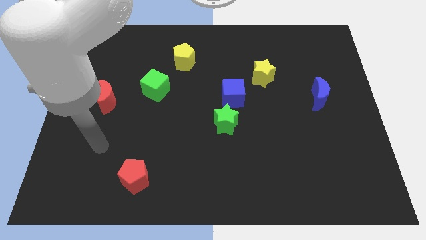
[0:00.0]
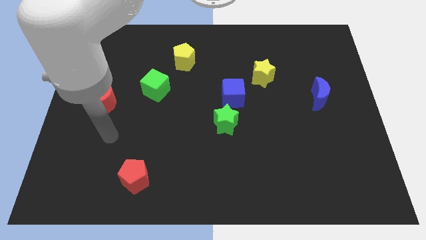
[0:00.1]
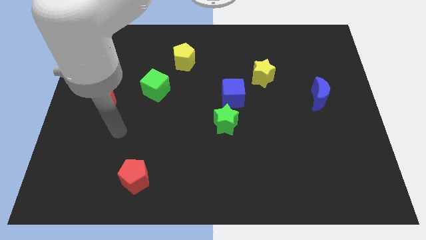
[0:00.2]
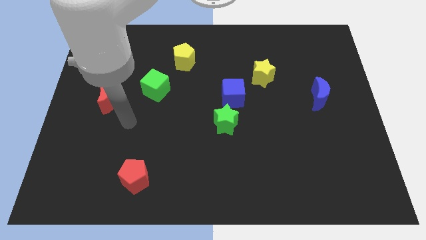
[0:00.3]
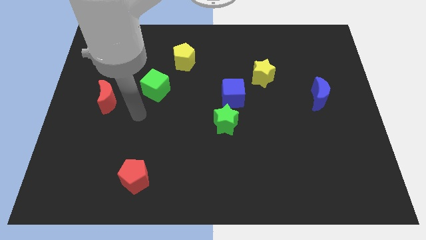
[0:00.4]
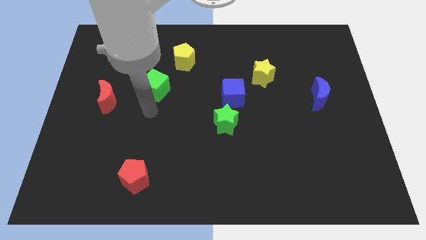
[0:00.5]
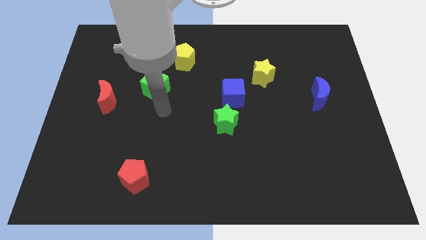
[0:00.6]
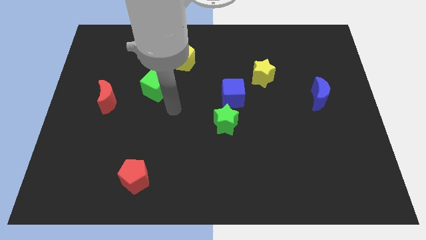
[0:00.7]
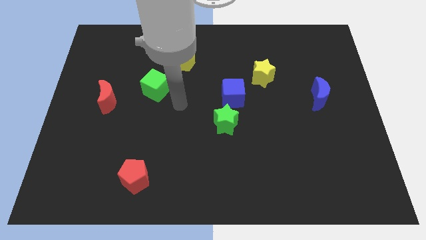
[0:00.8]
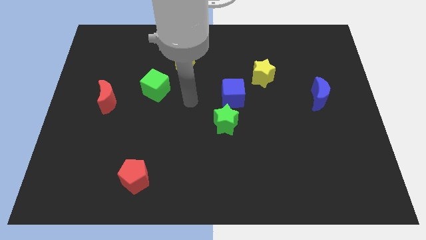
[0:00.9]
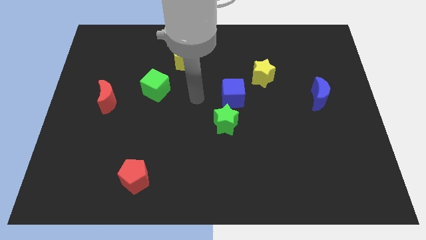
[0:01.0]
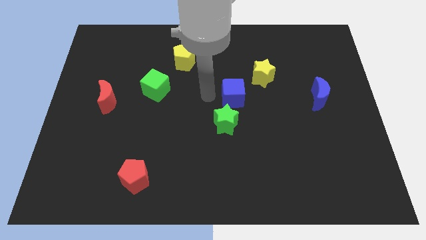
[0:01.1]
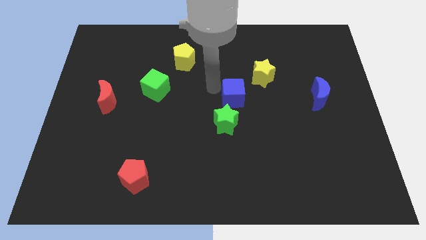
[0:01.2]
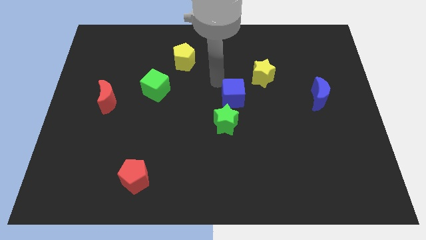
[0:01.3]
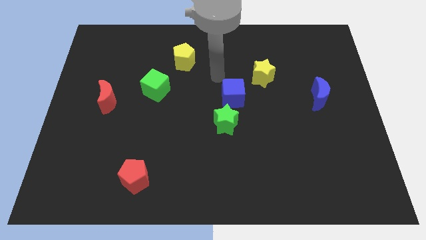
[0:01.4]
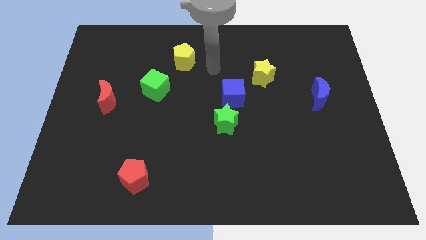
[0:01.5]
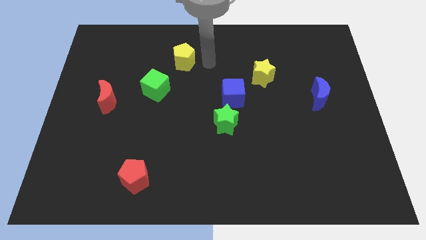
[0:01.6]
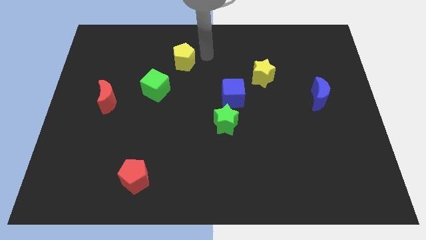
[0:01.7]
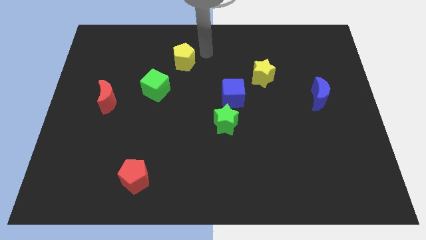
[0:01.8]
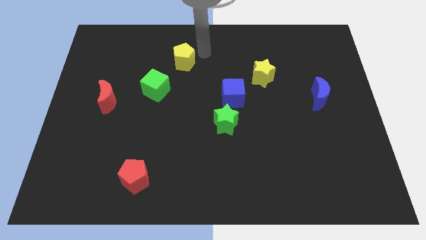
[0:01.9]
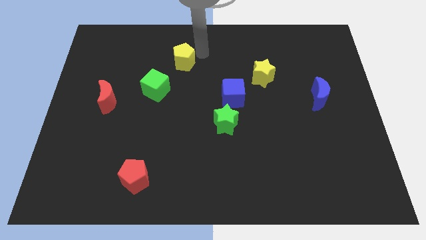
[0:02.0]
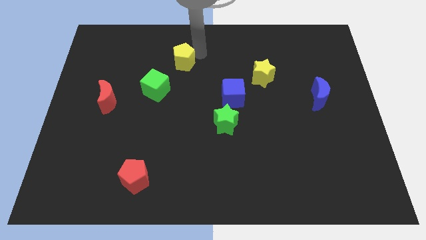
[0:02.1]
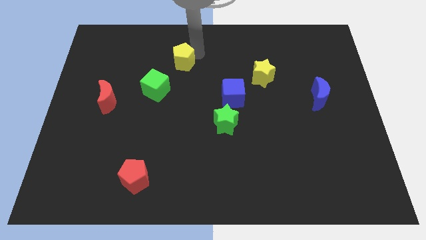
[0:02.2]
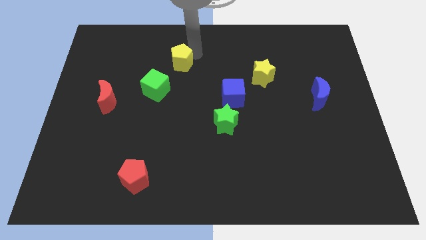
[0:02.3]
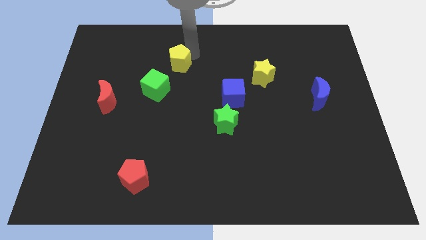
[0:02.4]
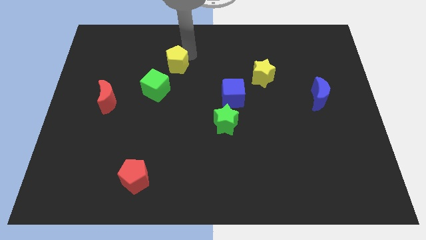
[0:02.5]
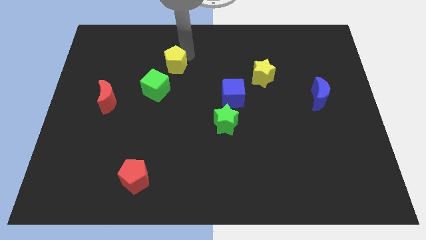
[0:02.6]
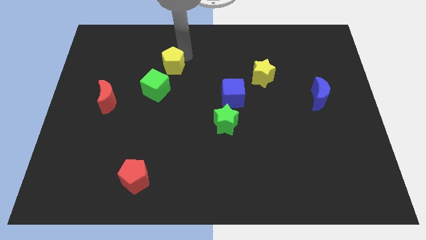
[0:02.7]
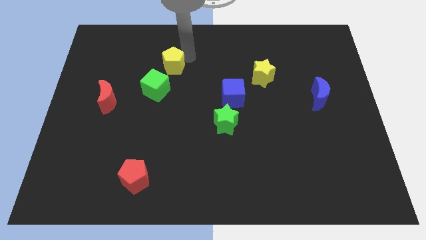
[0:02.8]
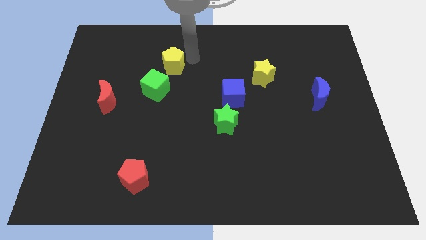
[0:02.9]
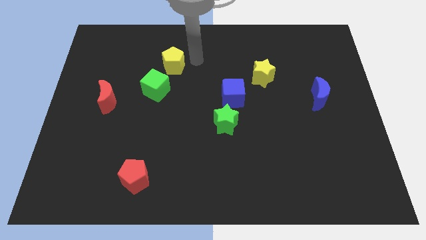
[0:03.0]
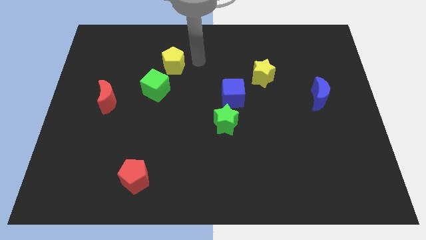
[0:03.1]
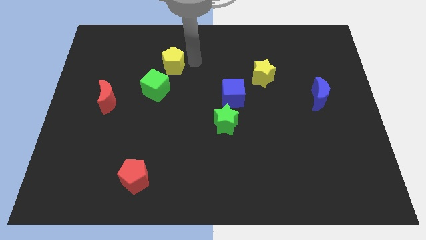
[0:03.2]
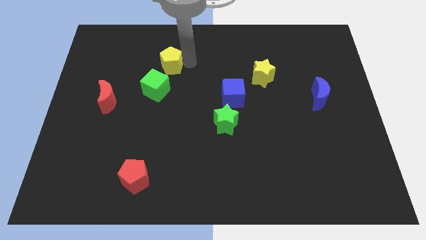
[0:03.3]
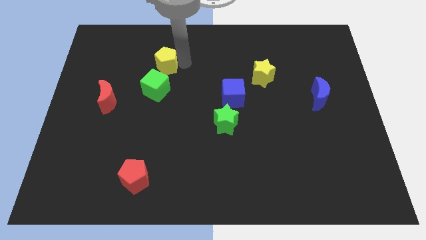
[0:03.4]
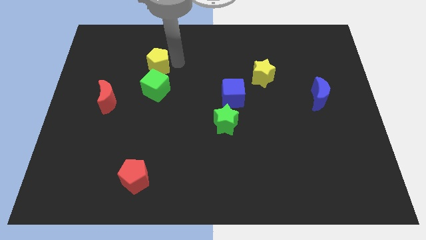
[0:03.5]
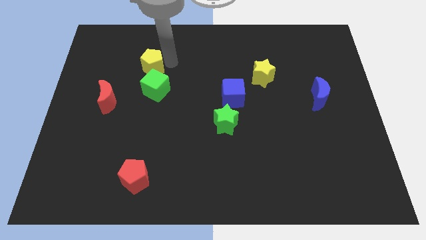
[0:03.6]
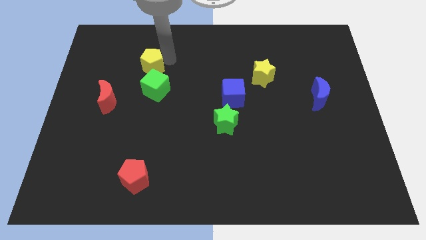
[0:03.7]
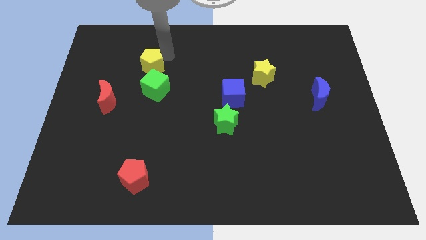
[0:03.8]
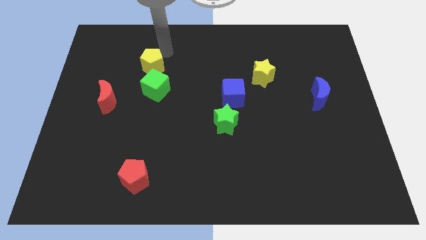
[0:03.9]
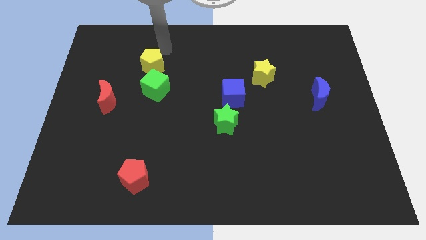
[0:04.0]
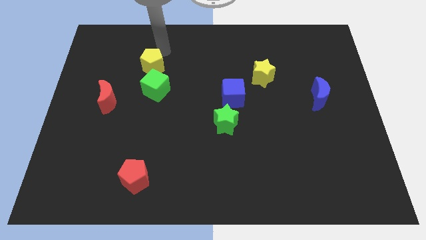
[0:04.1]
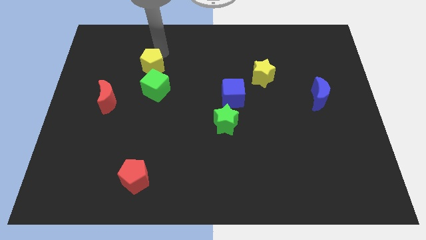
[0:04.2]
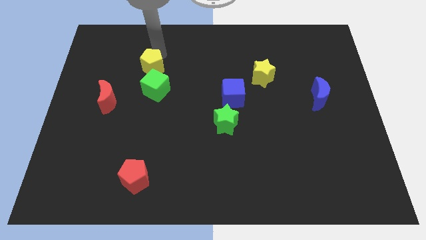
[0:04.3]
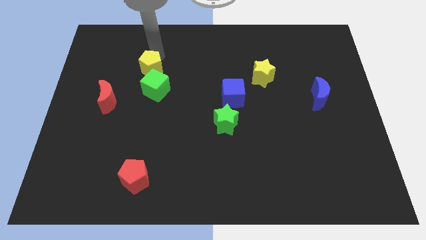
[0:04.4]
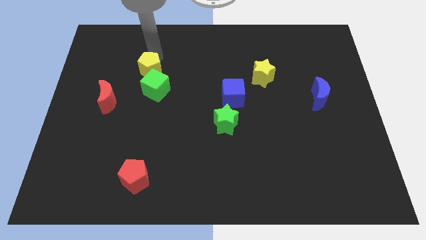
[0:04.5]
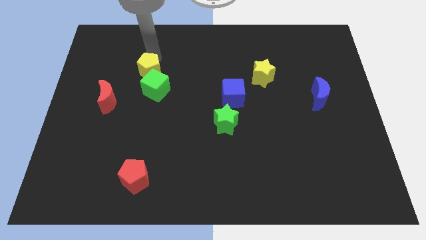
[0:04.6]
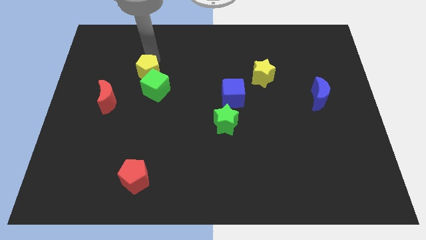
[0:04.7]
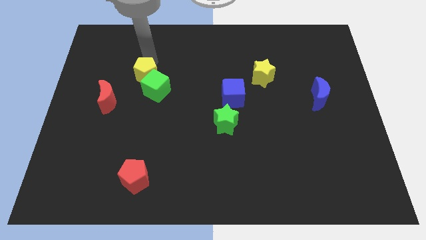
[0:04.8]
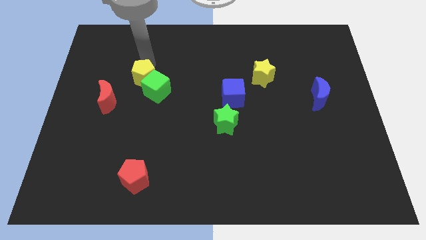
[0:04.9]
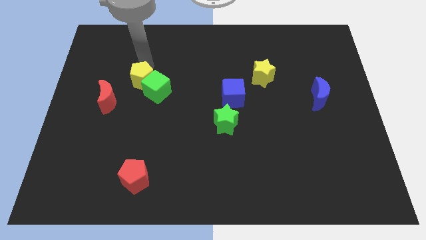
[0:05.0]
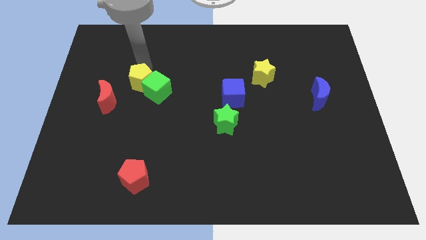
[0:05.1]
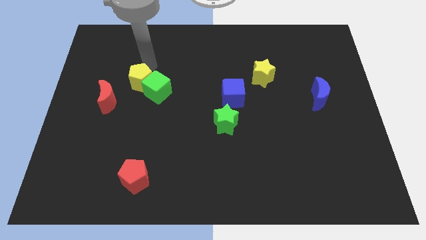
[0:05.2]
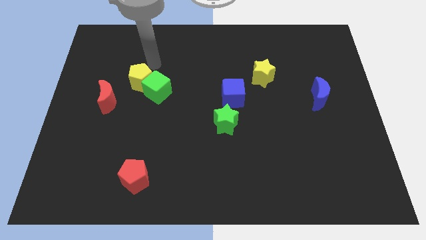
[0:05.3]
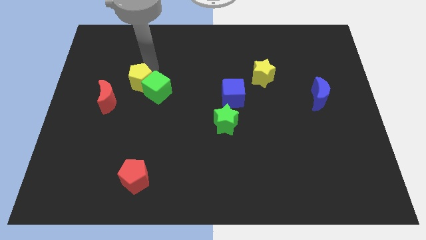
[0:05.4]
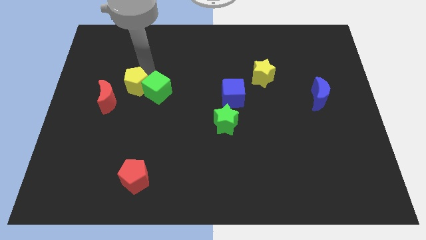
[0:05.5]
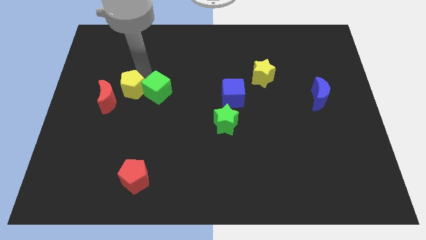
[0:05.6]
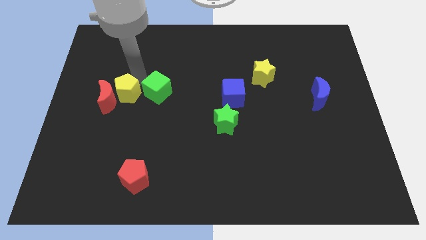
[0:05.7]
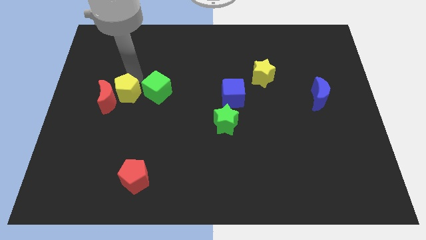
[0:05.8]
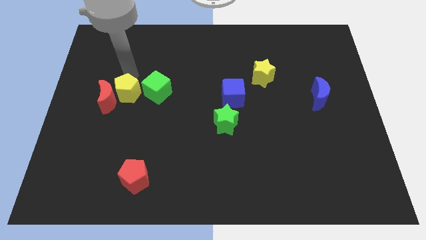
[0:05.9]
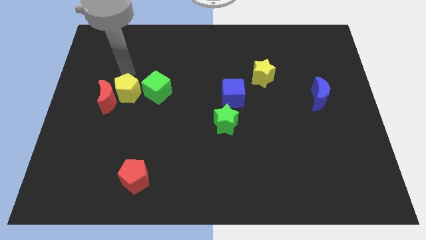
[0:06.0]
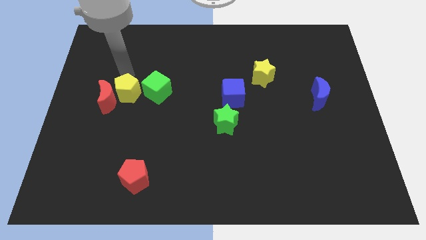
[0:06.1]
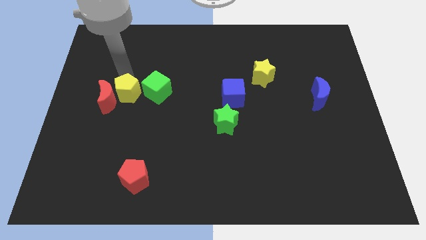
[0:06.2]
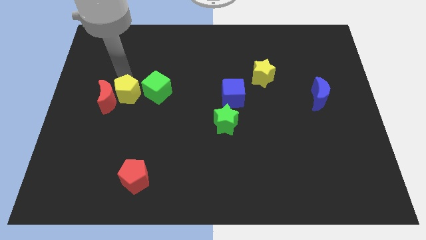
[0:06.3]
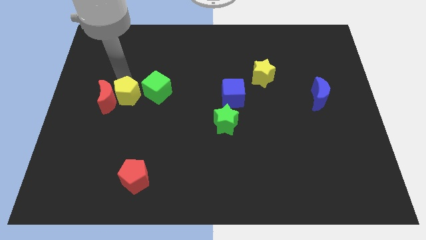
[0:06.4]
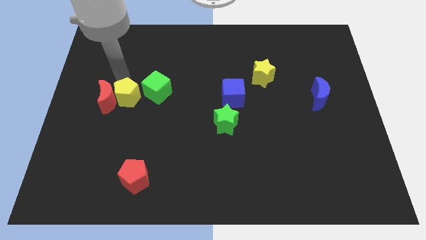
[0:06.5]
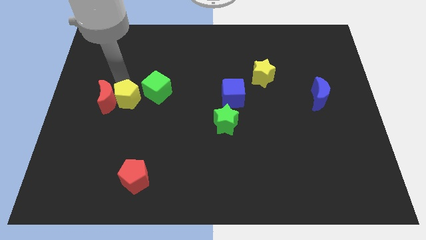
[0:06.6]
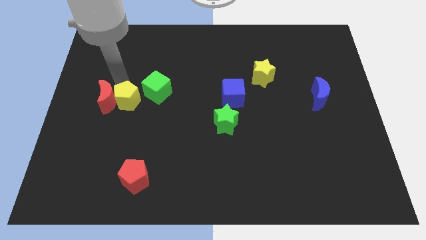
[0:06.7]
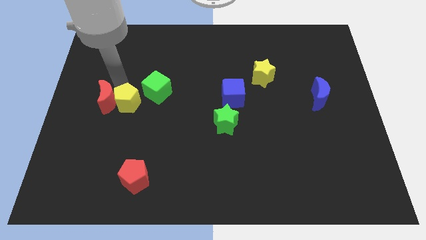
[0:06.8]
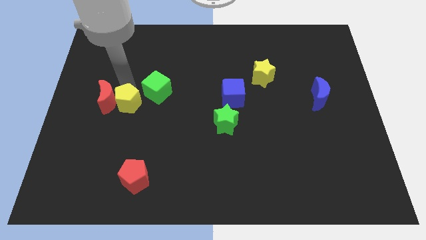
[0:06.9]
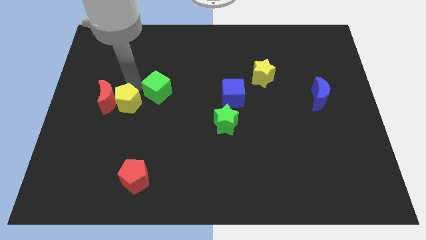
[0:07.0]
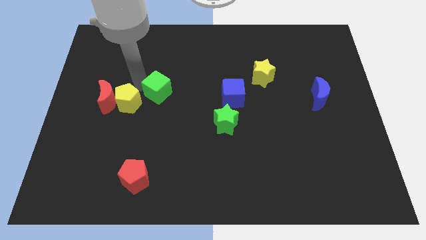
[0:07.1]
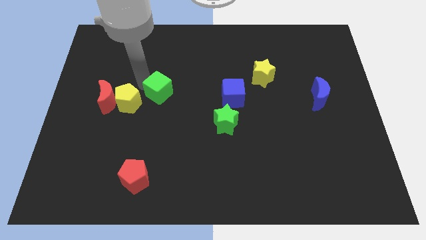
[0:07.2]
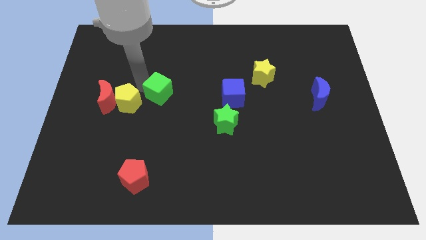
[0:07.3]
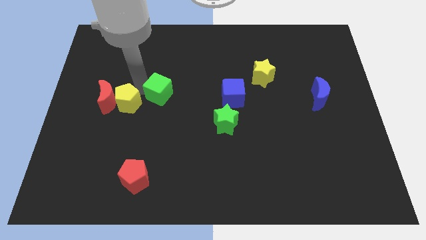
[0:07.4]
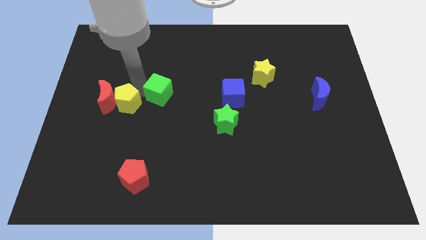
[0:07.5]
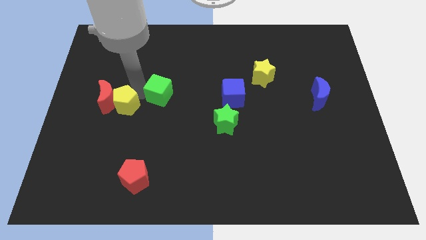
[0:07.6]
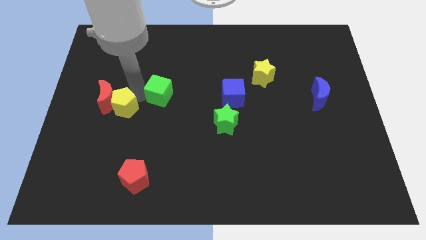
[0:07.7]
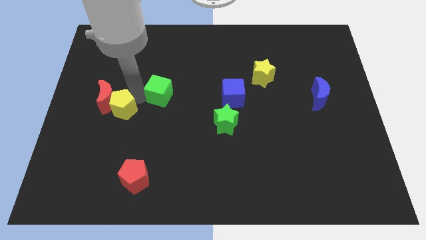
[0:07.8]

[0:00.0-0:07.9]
push the yellow pentagon below the red moon
